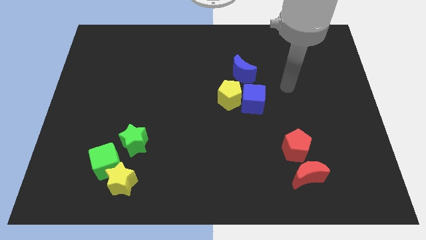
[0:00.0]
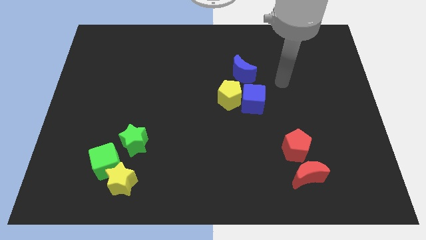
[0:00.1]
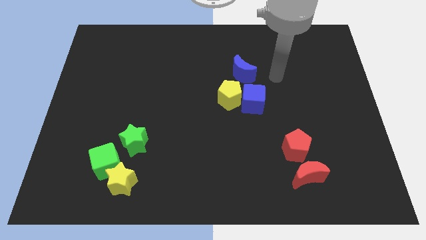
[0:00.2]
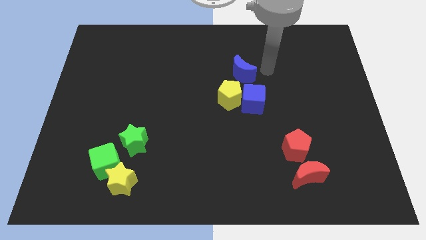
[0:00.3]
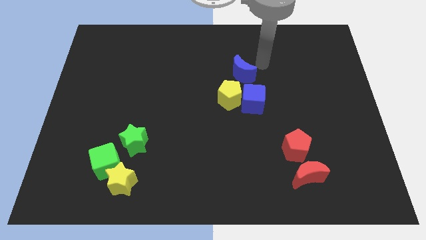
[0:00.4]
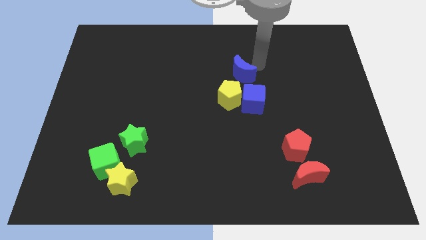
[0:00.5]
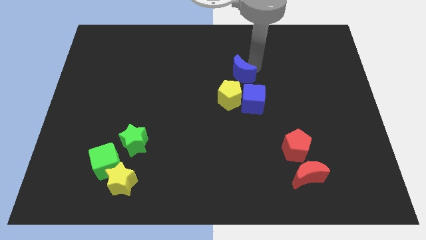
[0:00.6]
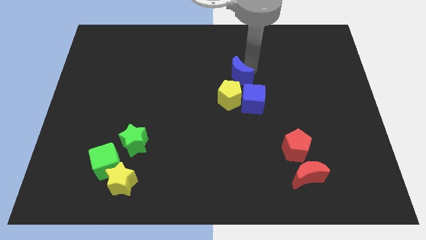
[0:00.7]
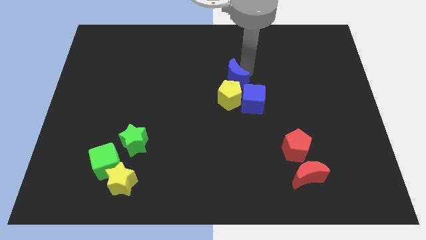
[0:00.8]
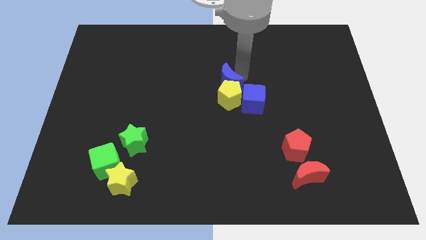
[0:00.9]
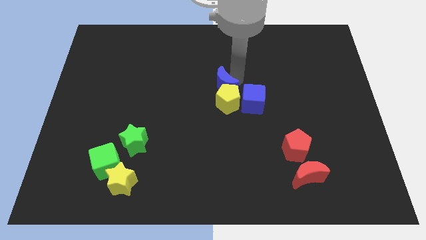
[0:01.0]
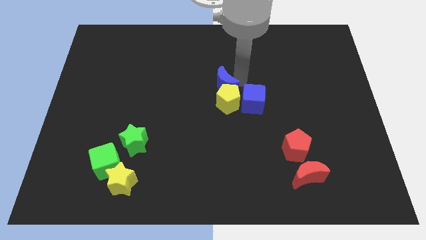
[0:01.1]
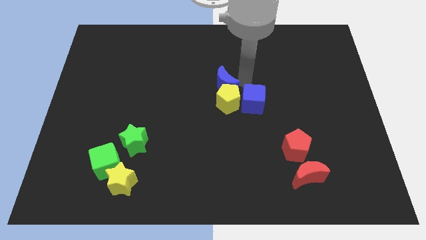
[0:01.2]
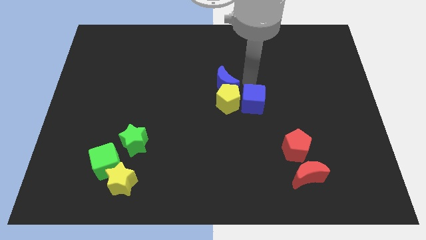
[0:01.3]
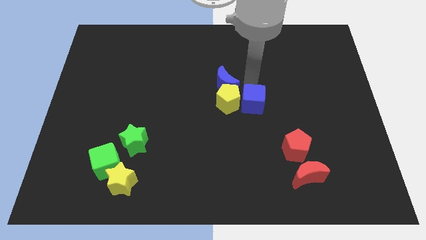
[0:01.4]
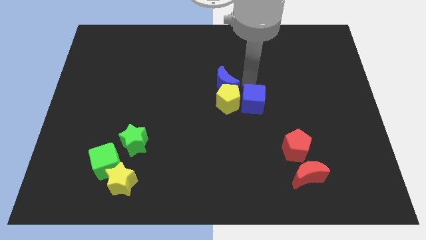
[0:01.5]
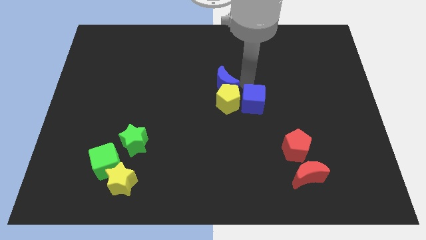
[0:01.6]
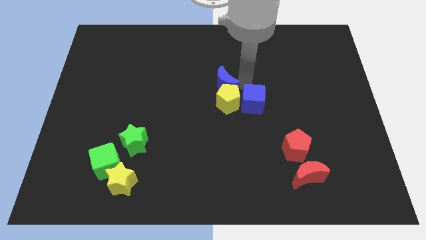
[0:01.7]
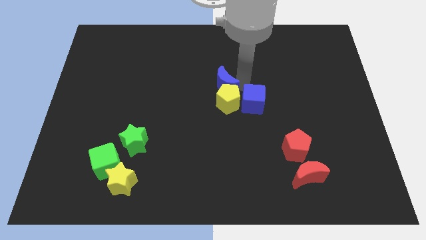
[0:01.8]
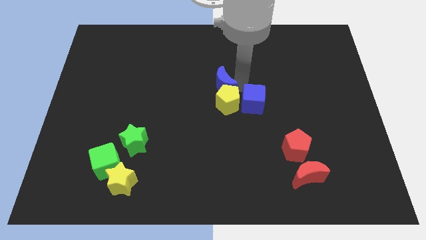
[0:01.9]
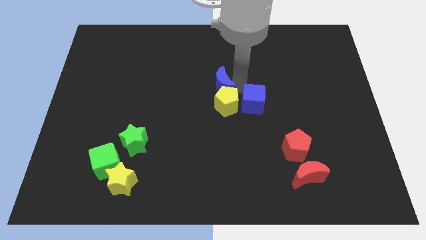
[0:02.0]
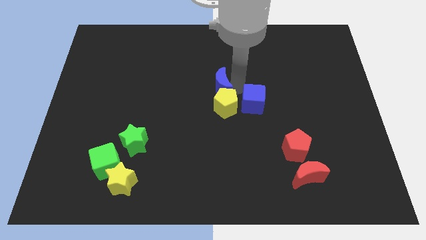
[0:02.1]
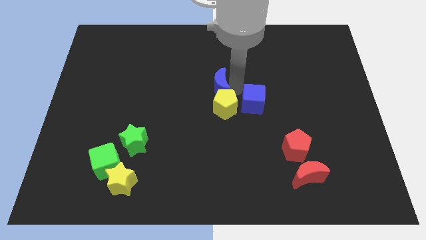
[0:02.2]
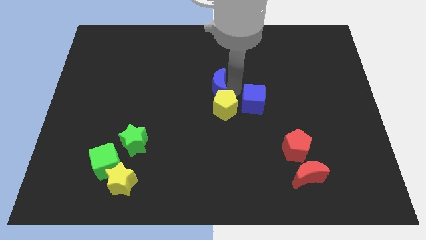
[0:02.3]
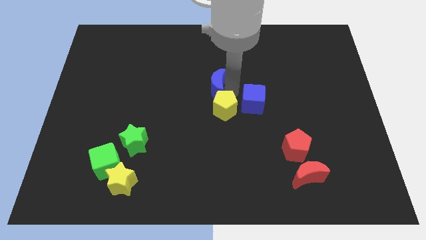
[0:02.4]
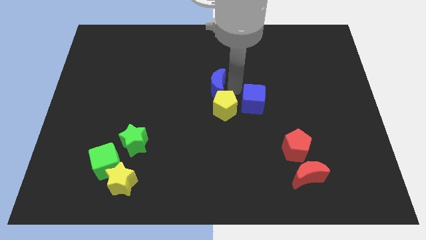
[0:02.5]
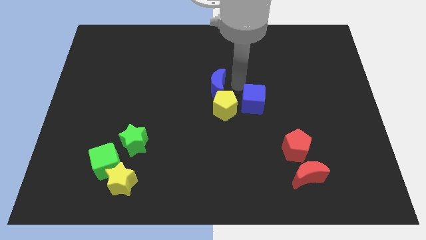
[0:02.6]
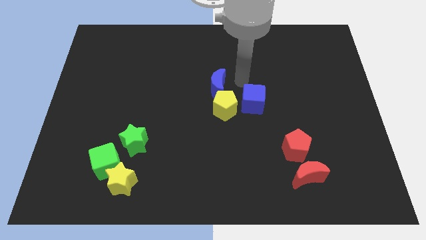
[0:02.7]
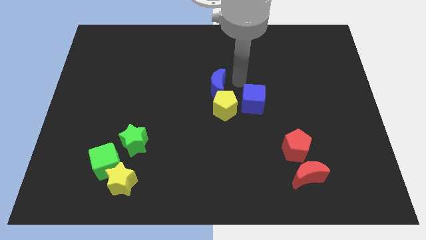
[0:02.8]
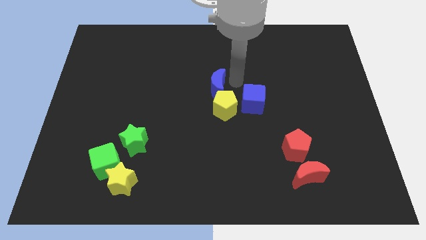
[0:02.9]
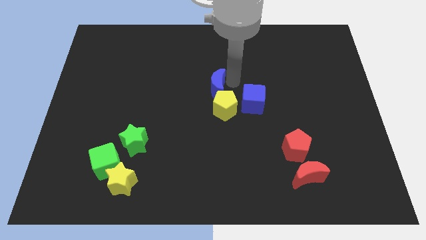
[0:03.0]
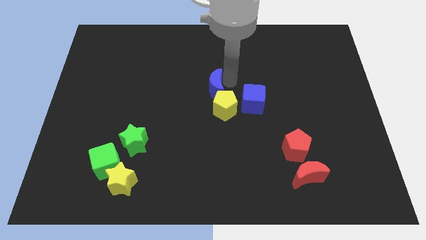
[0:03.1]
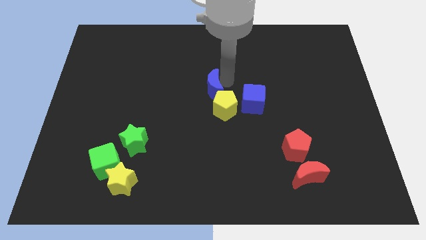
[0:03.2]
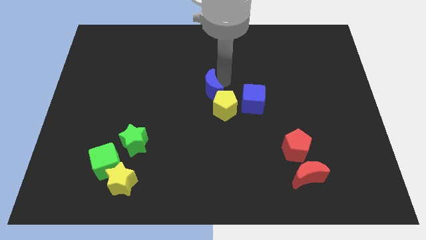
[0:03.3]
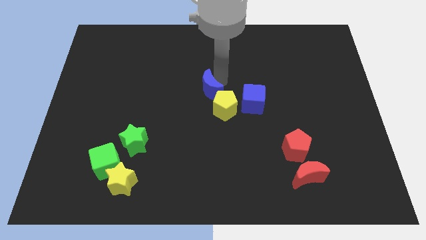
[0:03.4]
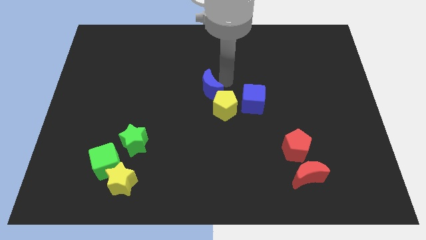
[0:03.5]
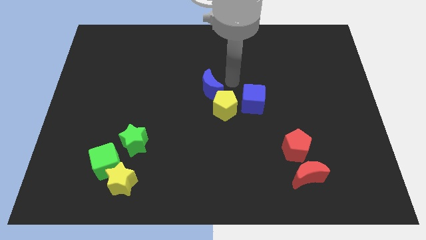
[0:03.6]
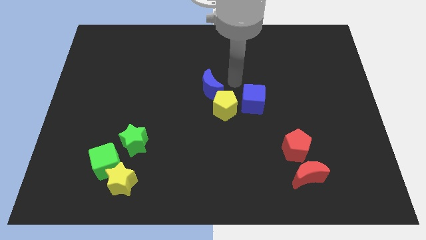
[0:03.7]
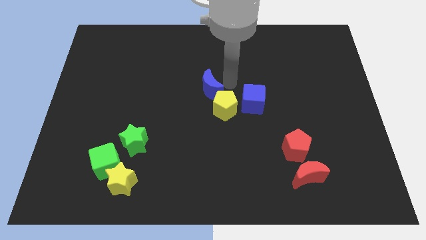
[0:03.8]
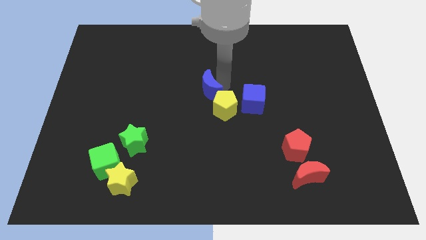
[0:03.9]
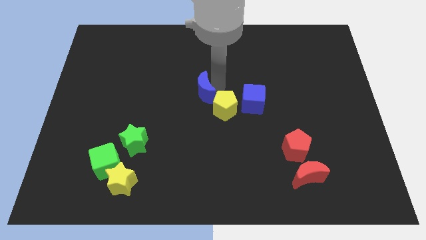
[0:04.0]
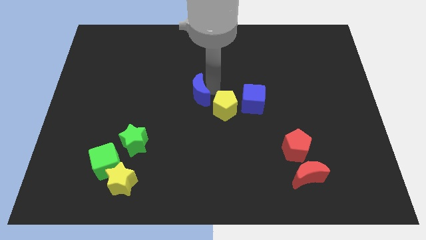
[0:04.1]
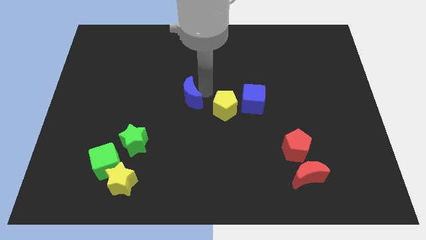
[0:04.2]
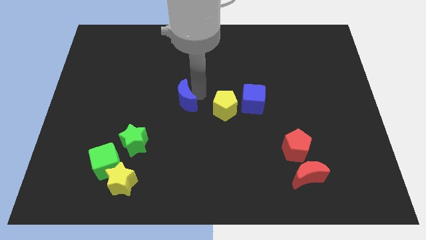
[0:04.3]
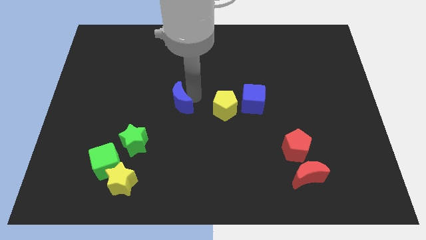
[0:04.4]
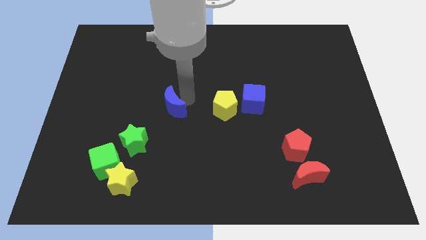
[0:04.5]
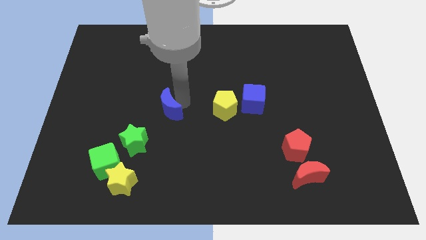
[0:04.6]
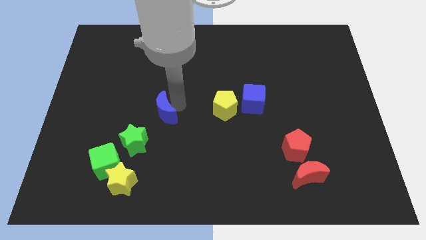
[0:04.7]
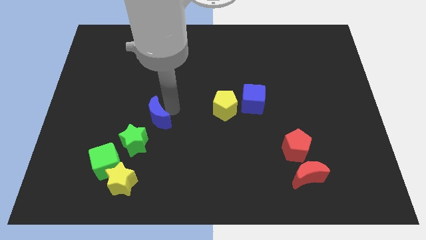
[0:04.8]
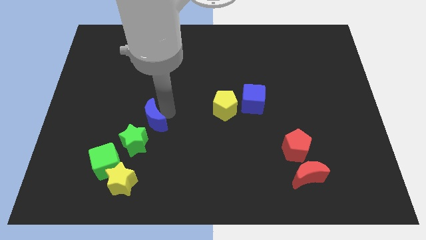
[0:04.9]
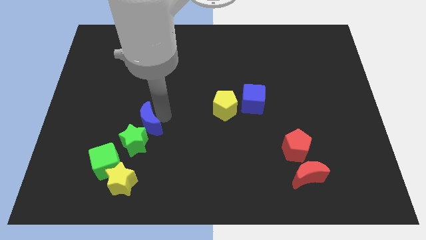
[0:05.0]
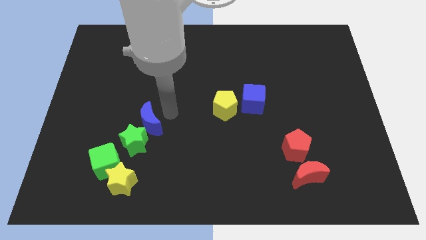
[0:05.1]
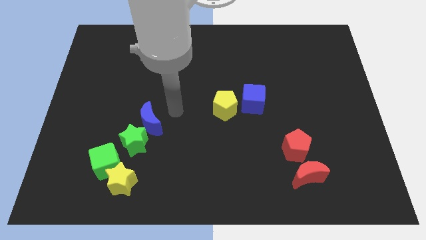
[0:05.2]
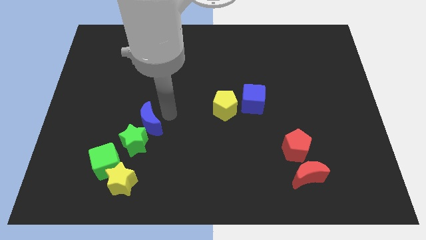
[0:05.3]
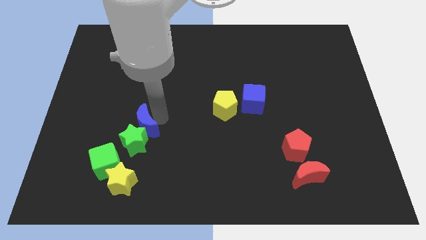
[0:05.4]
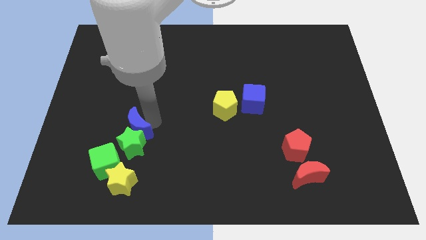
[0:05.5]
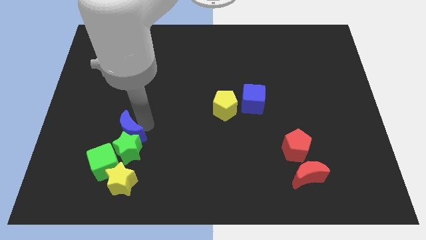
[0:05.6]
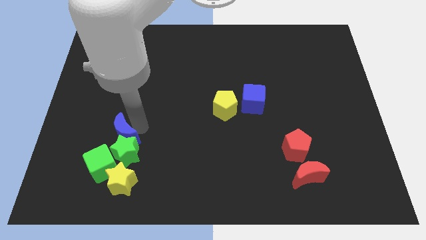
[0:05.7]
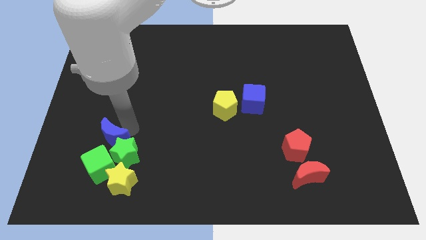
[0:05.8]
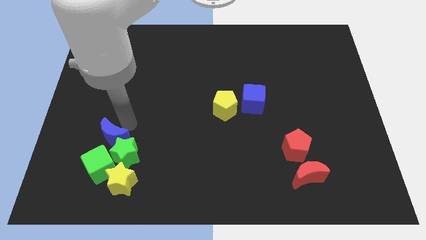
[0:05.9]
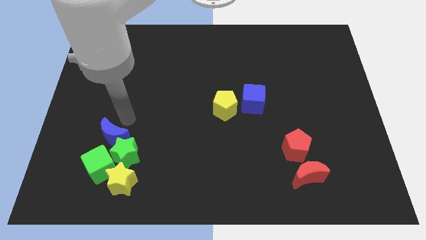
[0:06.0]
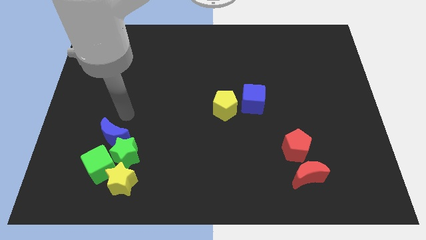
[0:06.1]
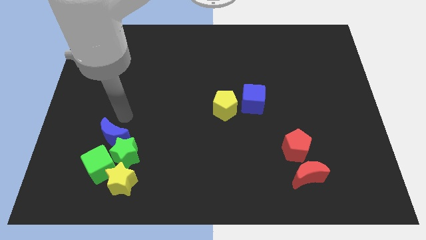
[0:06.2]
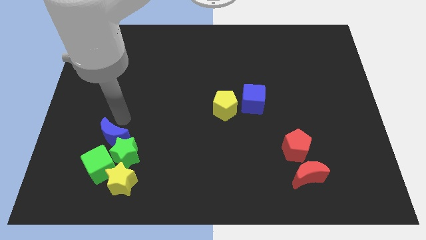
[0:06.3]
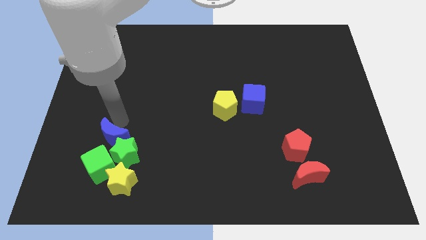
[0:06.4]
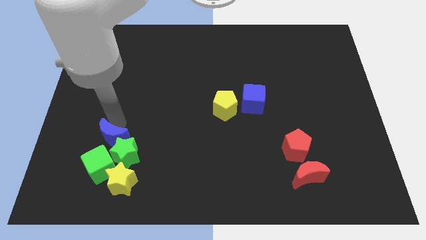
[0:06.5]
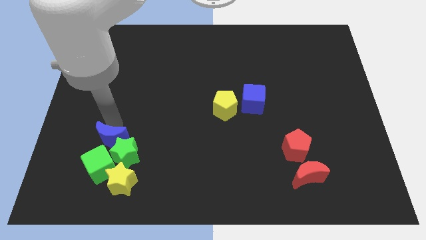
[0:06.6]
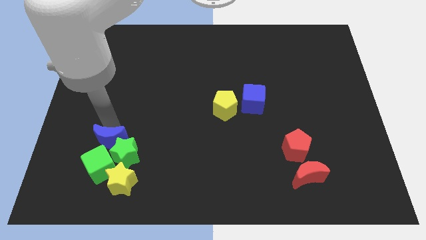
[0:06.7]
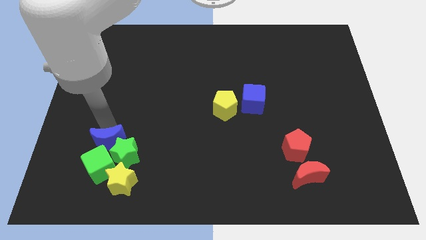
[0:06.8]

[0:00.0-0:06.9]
put the blue moon towards the green cube

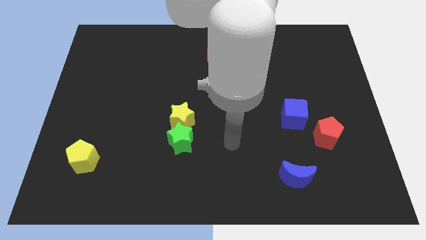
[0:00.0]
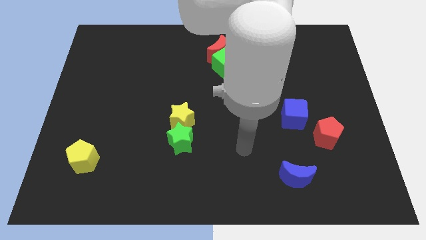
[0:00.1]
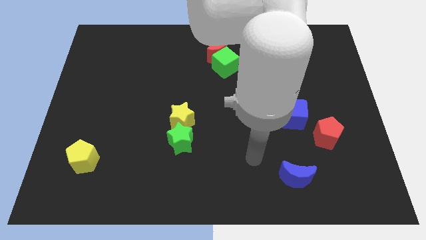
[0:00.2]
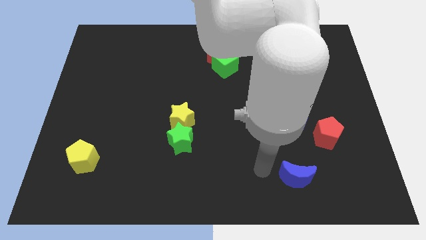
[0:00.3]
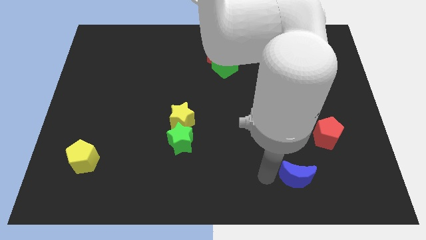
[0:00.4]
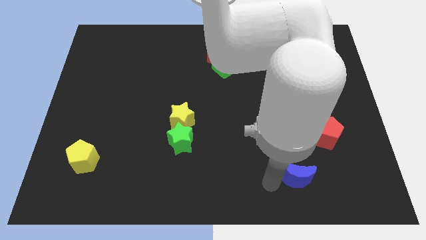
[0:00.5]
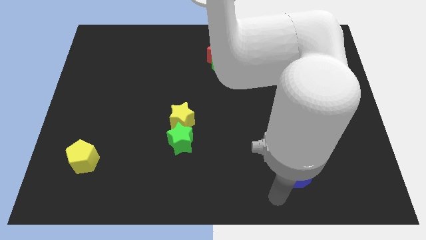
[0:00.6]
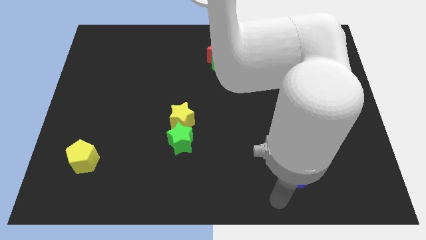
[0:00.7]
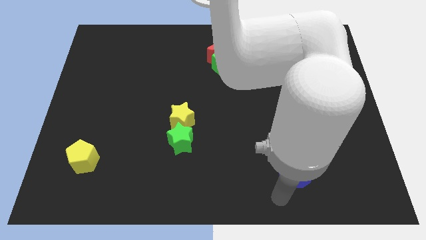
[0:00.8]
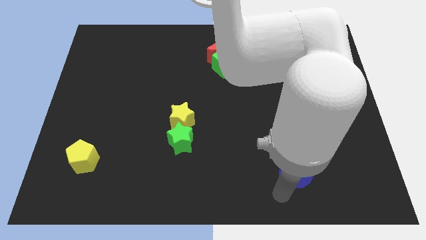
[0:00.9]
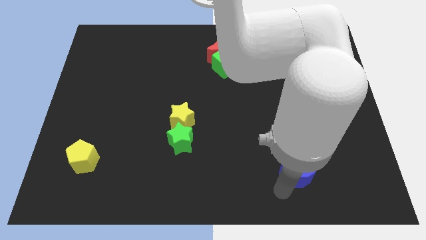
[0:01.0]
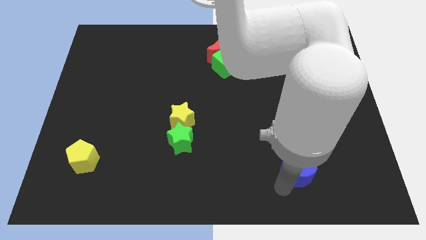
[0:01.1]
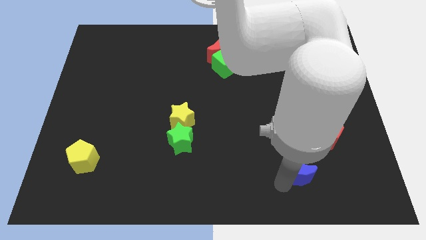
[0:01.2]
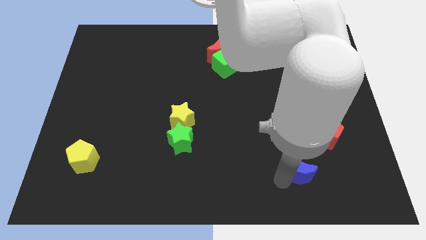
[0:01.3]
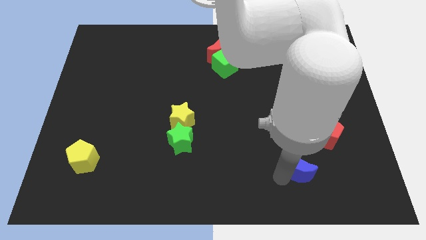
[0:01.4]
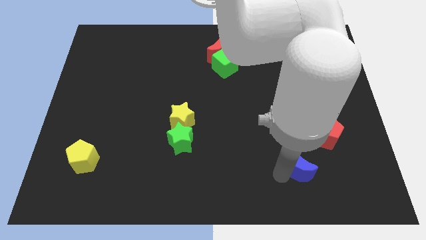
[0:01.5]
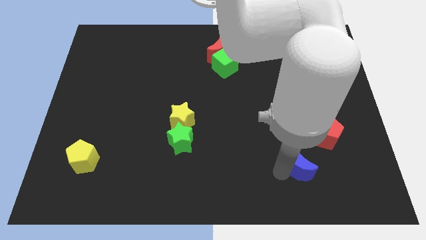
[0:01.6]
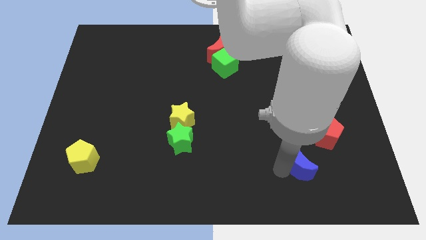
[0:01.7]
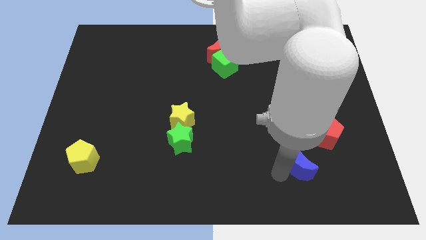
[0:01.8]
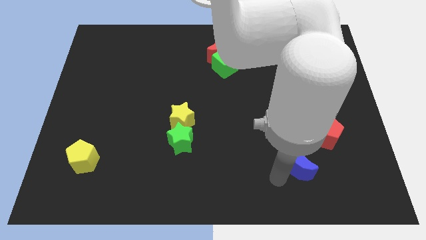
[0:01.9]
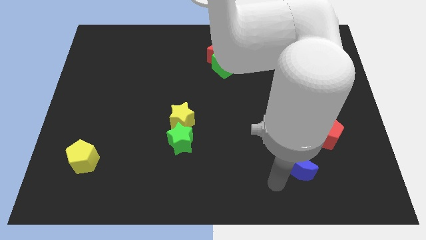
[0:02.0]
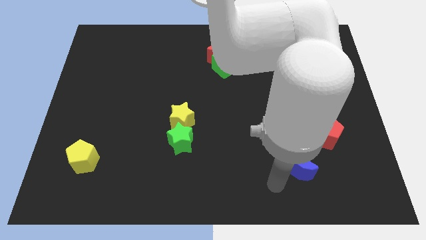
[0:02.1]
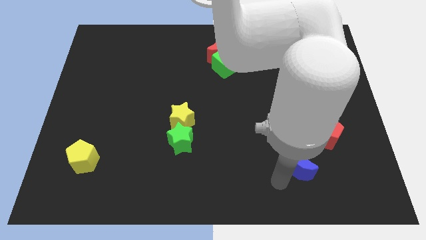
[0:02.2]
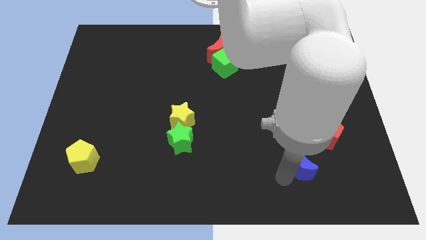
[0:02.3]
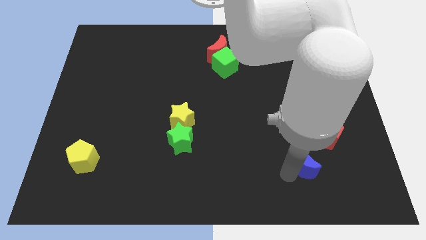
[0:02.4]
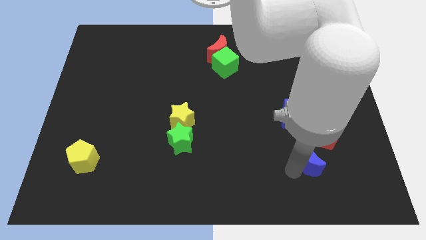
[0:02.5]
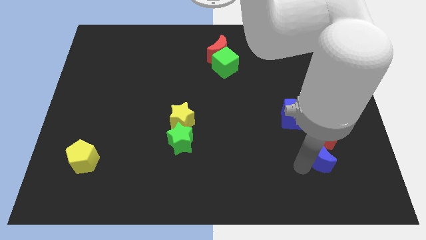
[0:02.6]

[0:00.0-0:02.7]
put the blue moon close to the red pentagon
